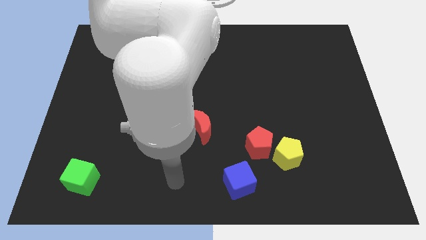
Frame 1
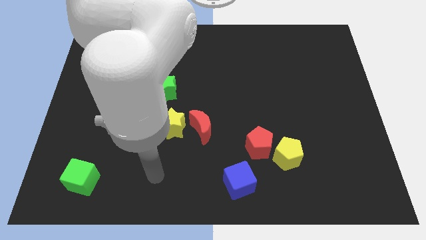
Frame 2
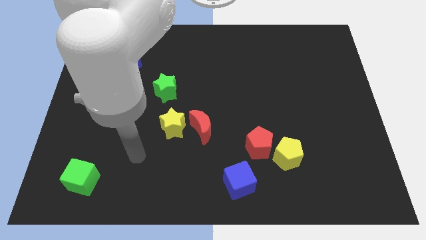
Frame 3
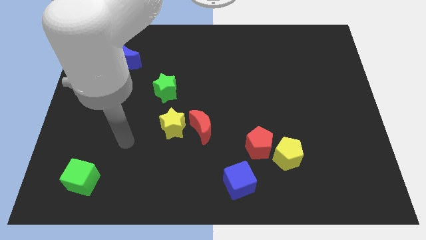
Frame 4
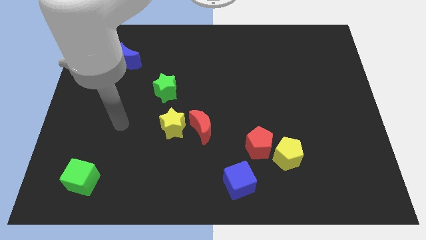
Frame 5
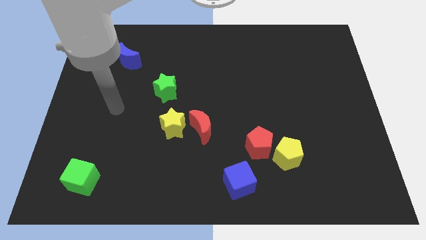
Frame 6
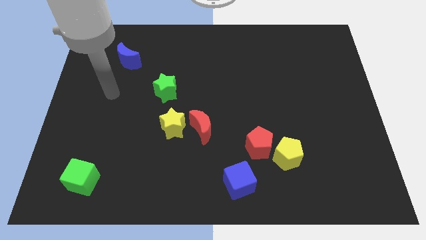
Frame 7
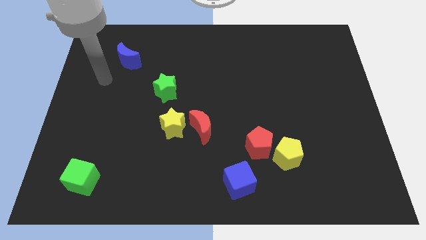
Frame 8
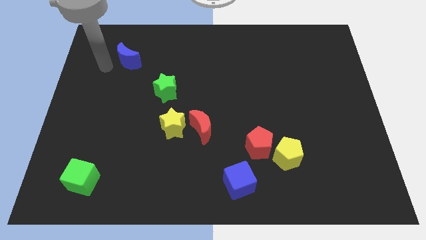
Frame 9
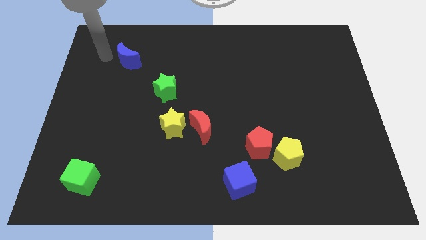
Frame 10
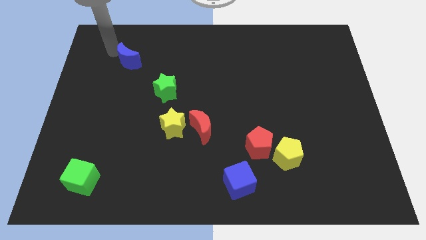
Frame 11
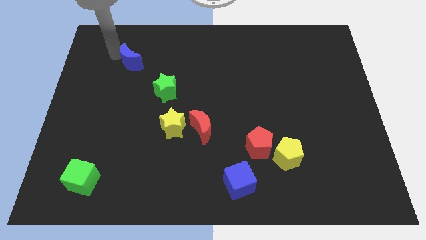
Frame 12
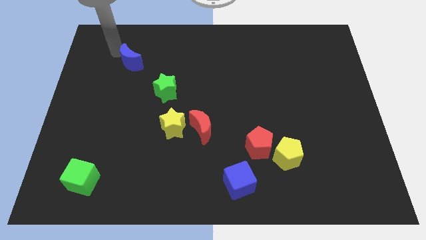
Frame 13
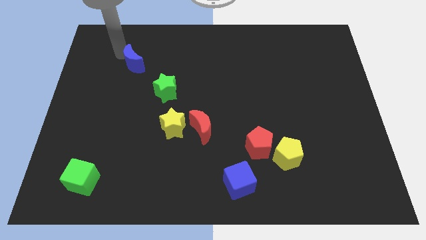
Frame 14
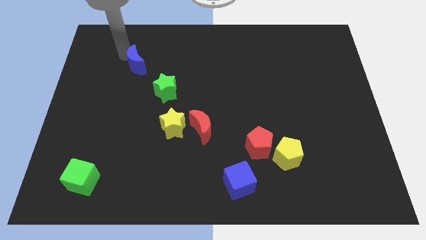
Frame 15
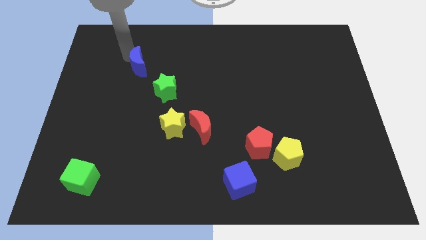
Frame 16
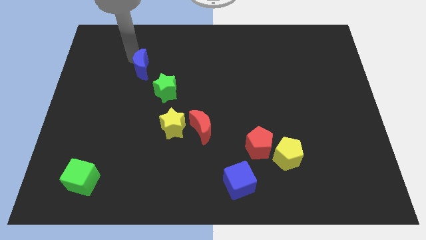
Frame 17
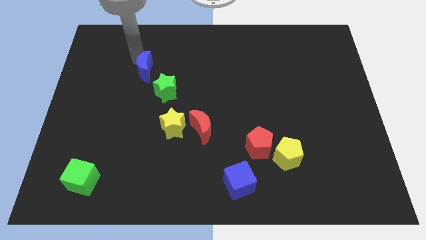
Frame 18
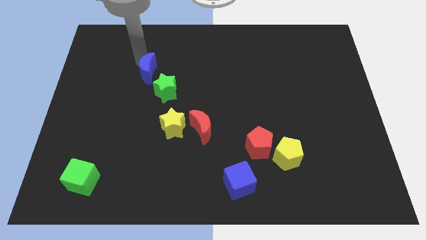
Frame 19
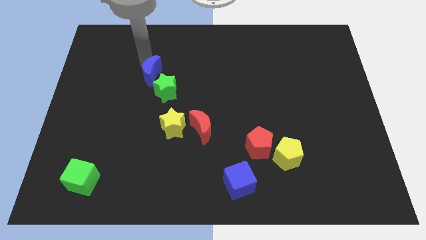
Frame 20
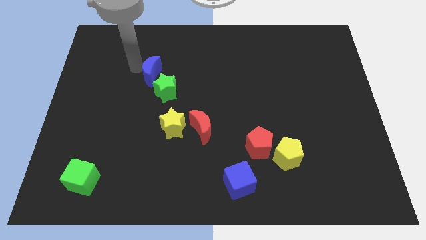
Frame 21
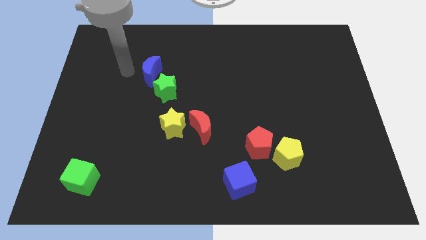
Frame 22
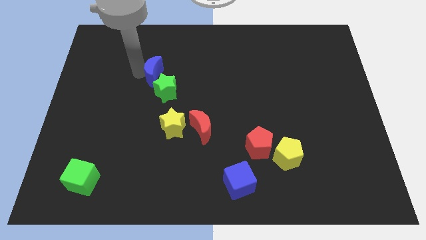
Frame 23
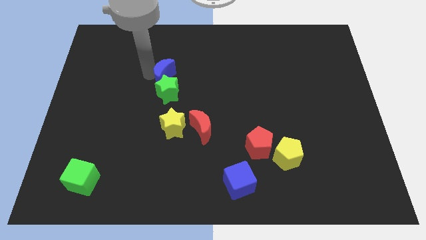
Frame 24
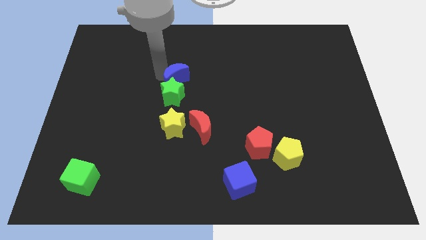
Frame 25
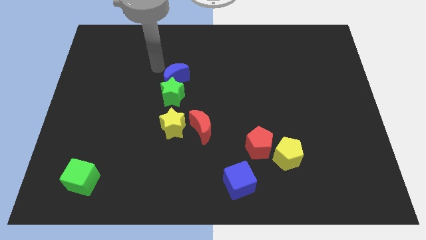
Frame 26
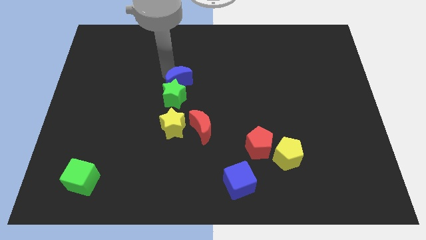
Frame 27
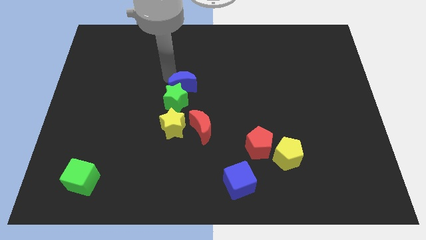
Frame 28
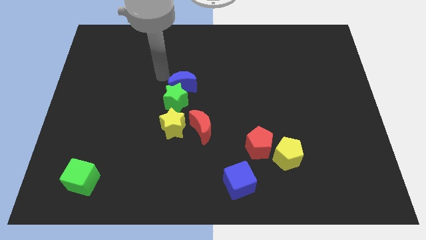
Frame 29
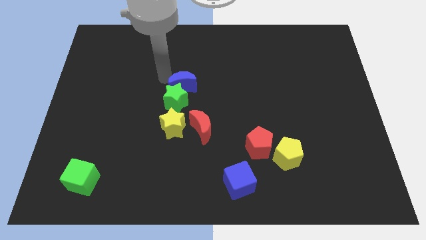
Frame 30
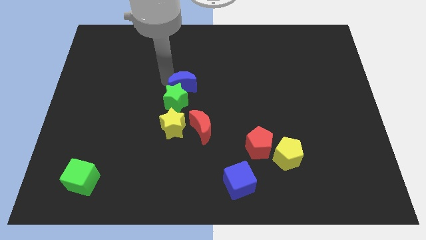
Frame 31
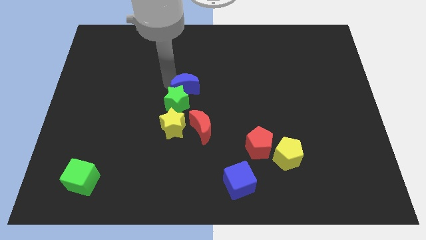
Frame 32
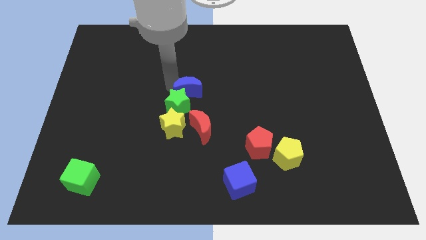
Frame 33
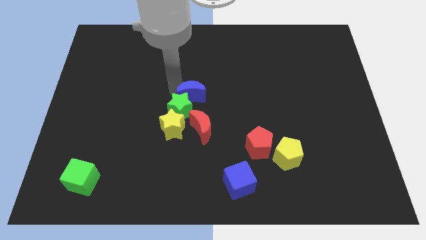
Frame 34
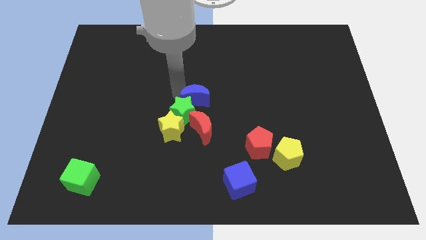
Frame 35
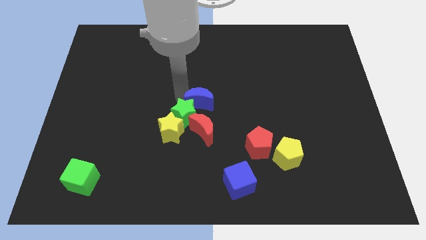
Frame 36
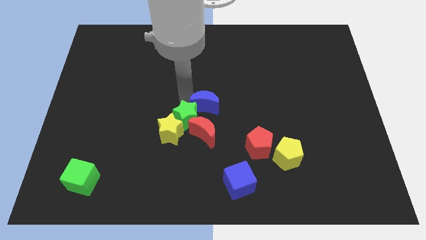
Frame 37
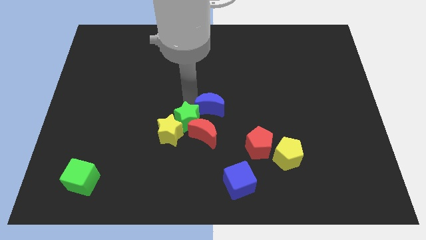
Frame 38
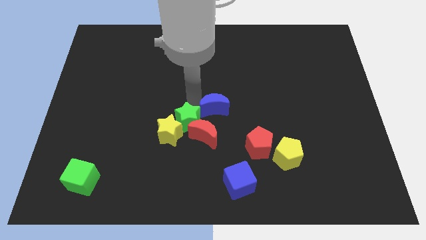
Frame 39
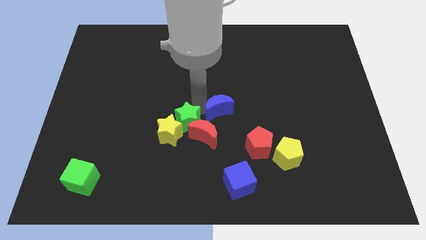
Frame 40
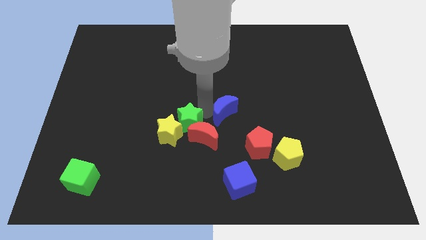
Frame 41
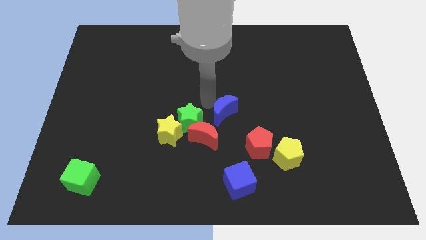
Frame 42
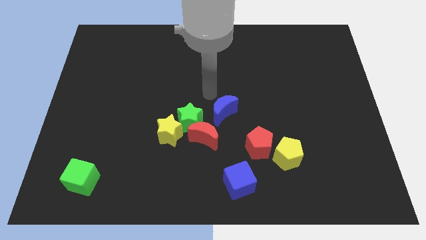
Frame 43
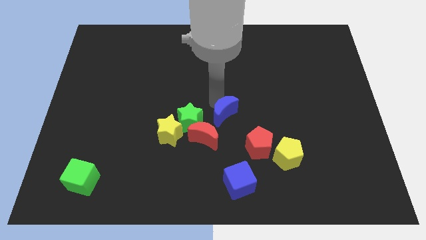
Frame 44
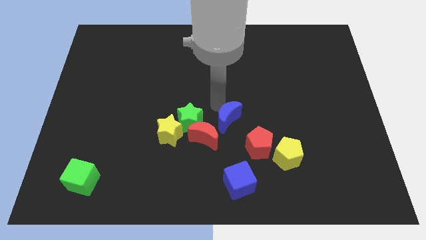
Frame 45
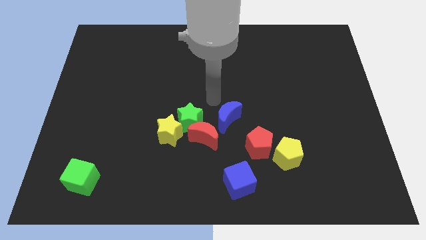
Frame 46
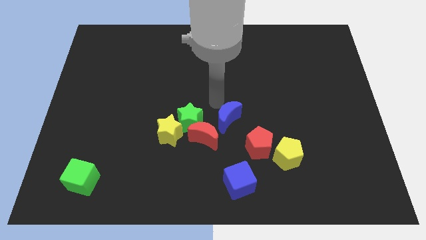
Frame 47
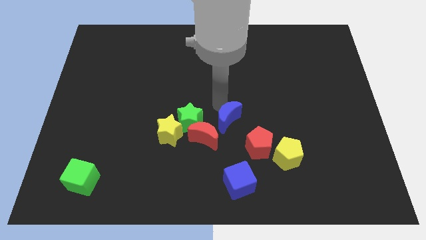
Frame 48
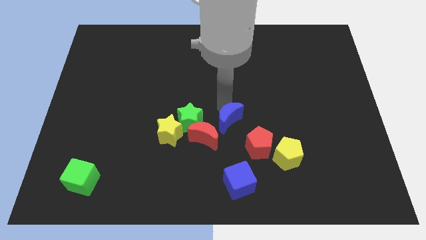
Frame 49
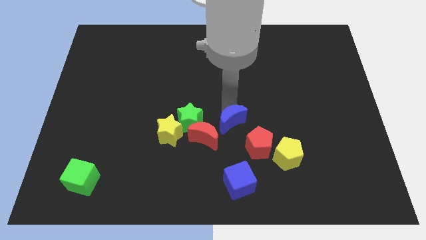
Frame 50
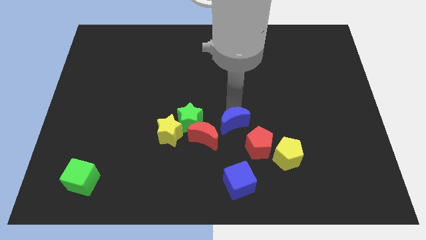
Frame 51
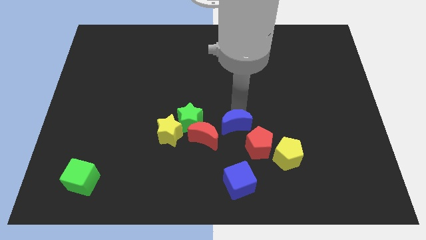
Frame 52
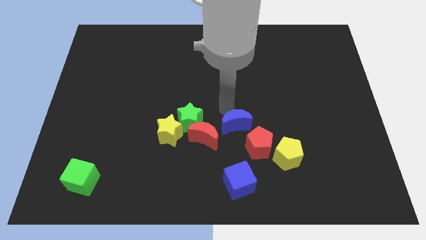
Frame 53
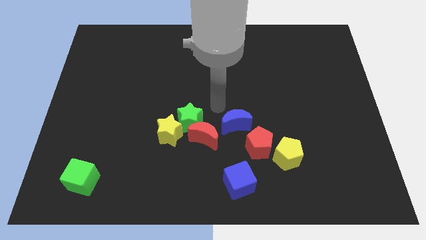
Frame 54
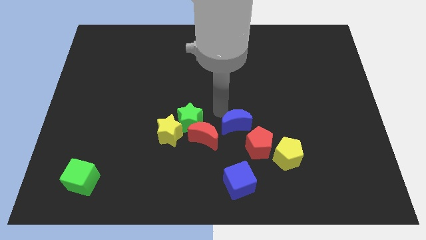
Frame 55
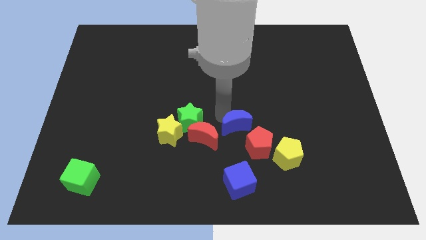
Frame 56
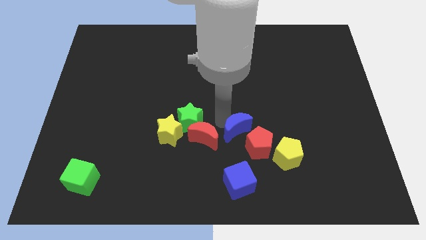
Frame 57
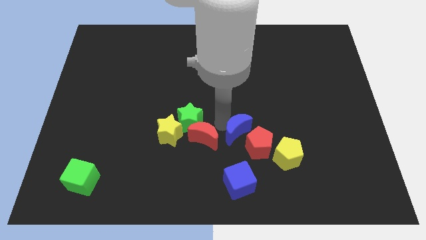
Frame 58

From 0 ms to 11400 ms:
push the blue moon to the red pentagon

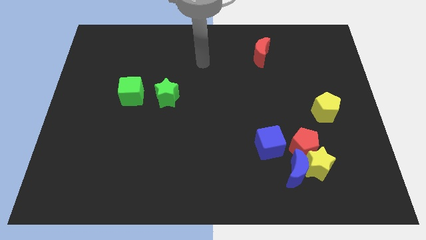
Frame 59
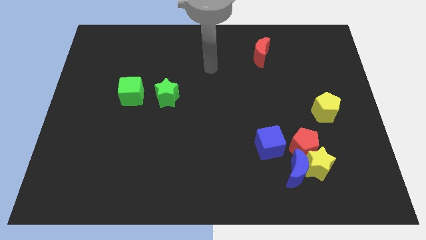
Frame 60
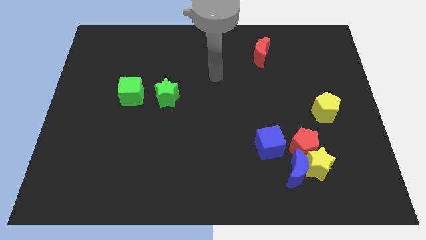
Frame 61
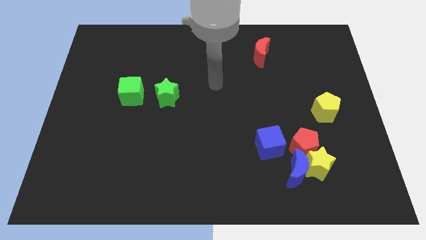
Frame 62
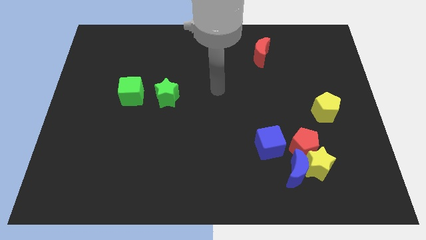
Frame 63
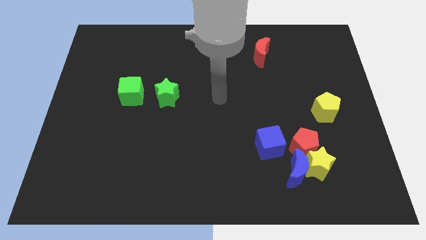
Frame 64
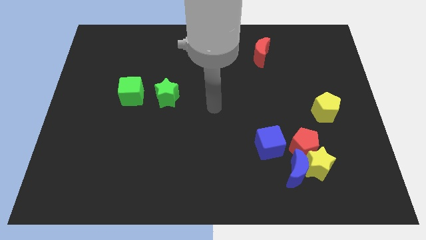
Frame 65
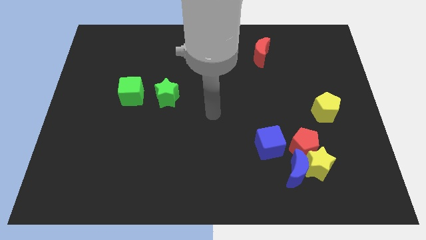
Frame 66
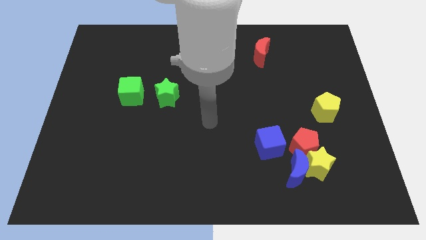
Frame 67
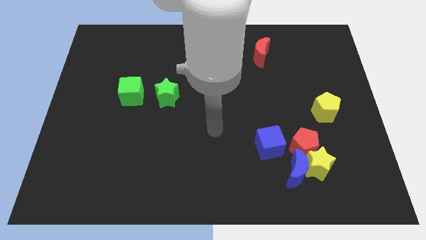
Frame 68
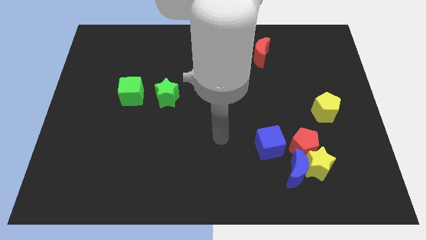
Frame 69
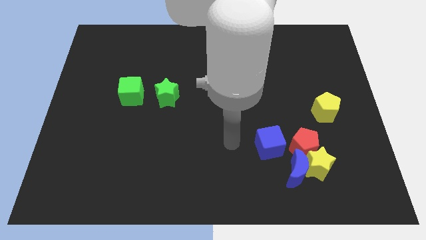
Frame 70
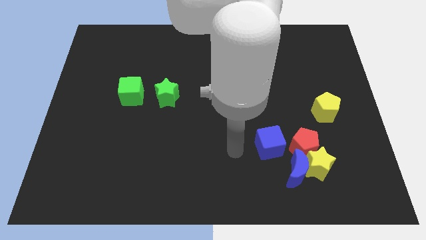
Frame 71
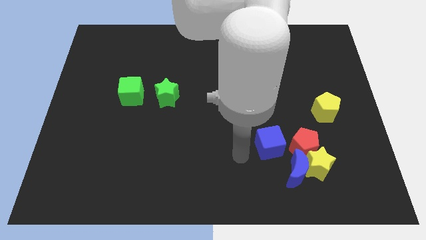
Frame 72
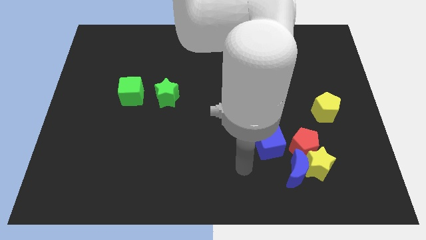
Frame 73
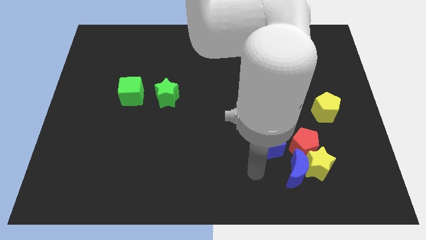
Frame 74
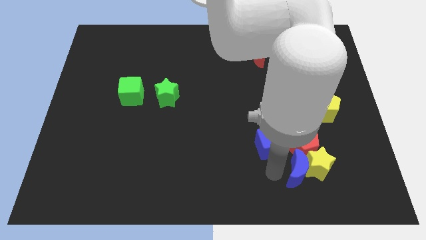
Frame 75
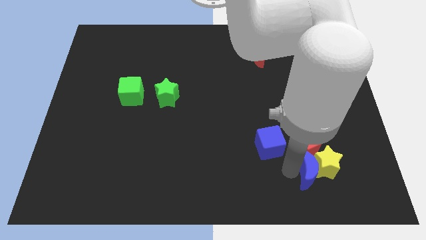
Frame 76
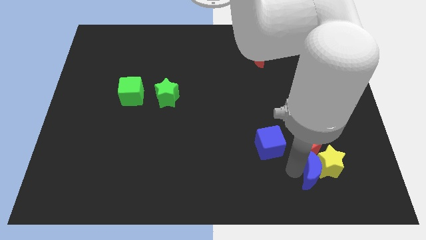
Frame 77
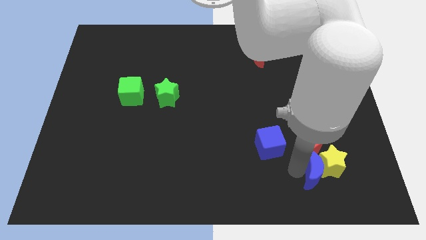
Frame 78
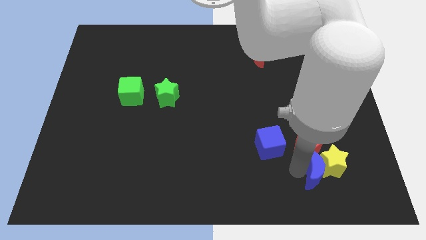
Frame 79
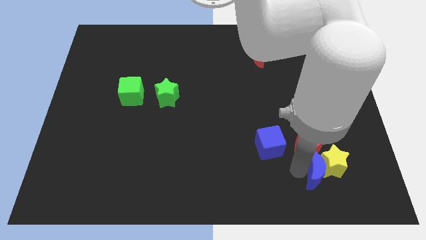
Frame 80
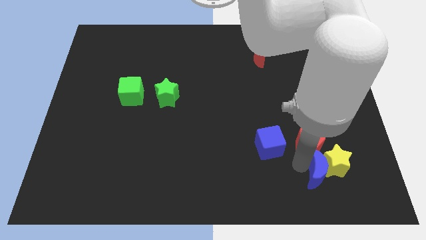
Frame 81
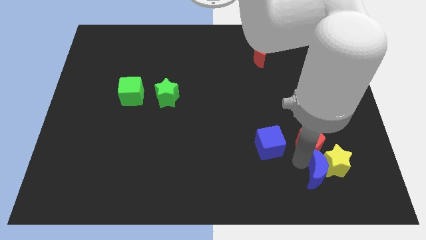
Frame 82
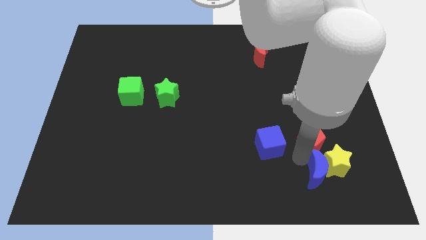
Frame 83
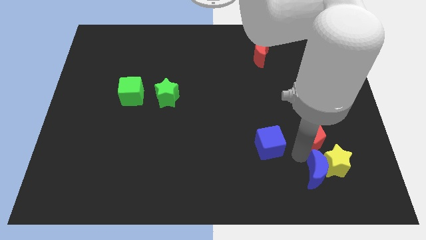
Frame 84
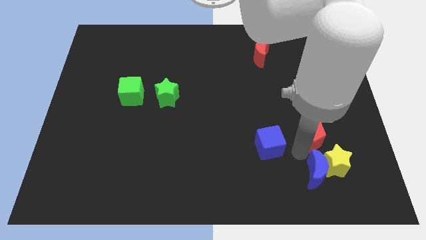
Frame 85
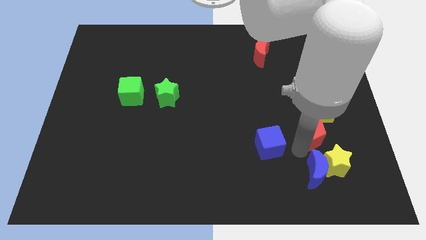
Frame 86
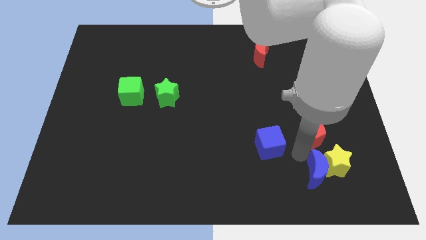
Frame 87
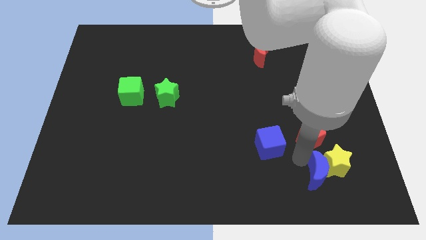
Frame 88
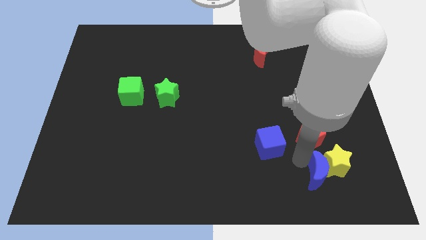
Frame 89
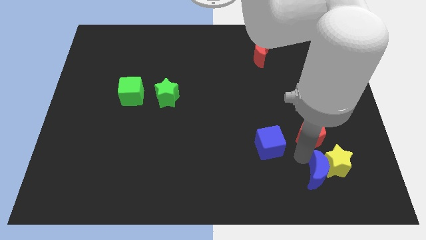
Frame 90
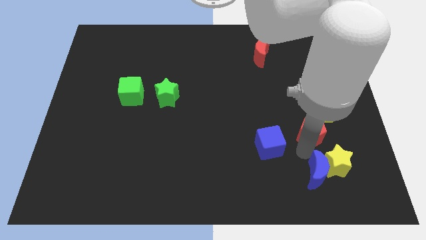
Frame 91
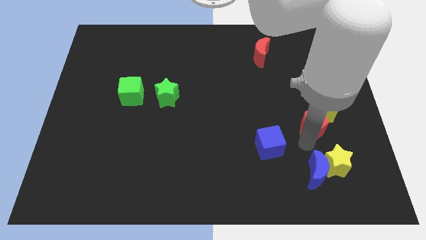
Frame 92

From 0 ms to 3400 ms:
push the red pentagon close to the yellow pentagon
